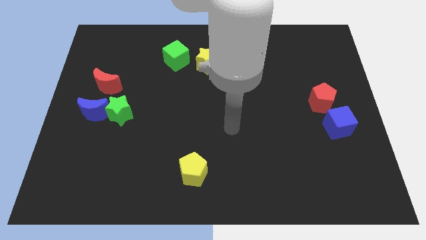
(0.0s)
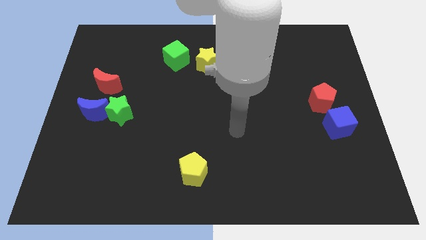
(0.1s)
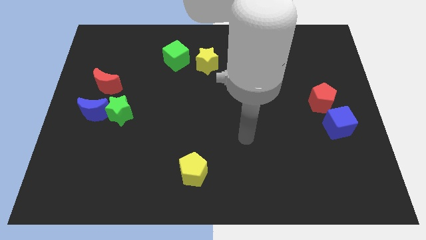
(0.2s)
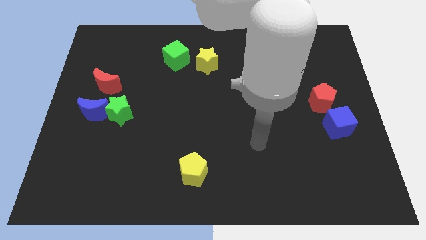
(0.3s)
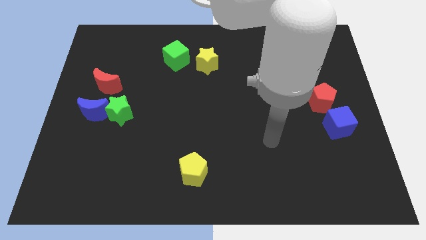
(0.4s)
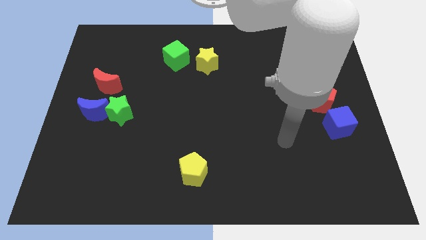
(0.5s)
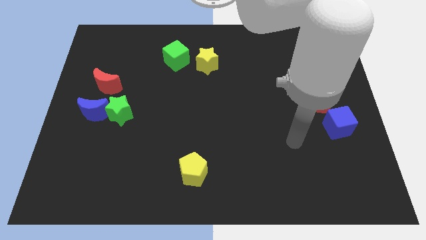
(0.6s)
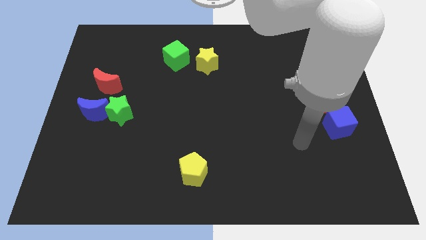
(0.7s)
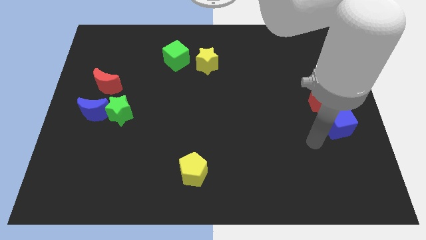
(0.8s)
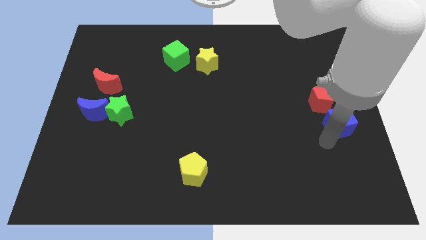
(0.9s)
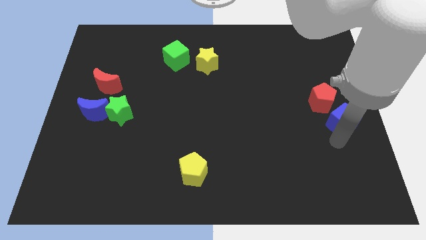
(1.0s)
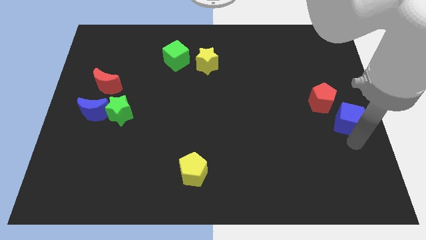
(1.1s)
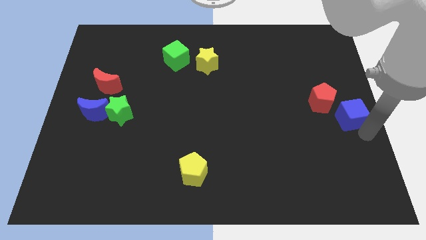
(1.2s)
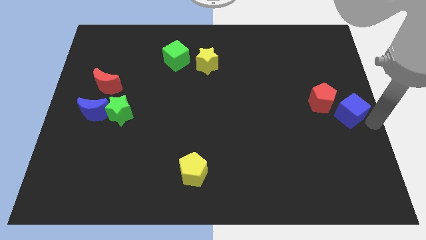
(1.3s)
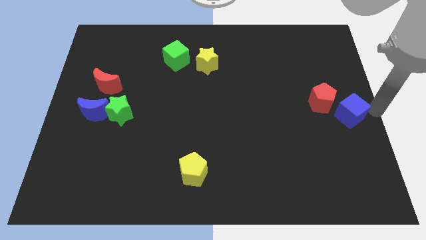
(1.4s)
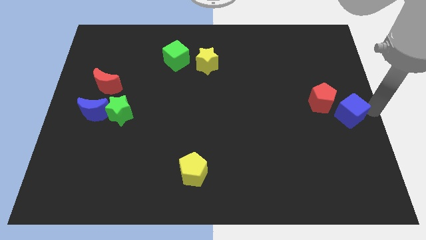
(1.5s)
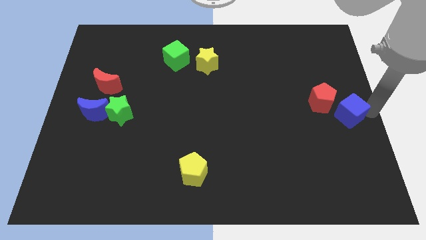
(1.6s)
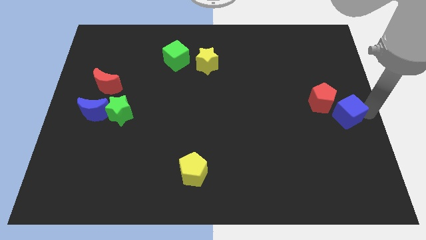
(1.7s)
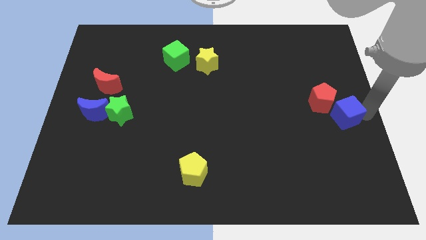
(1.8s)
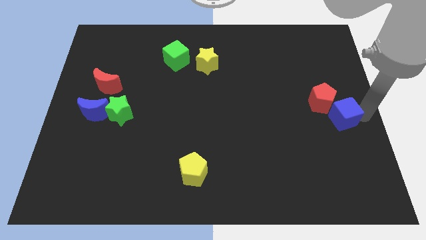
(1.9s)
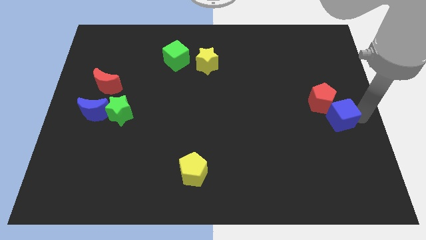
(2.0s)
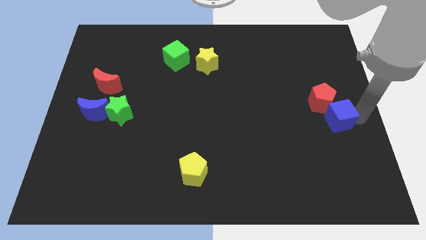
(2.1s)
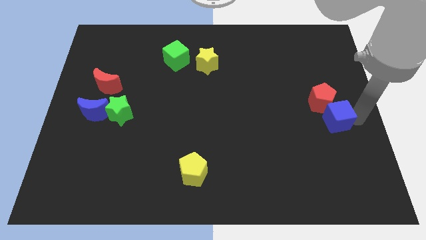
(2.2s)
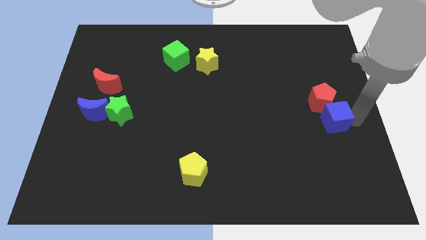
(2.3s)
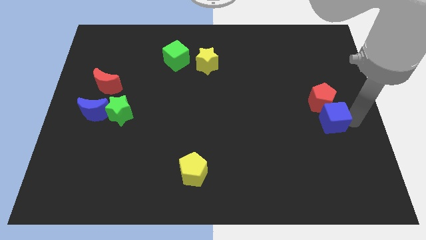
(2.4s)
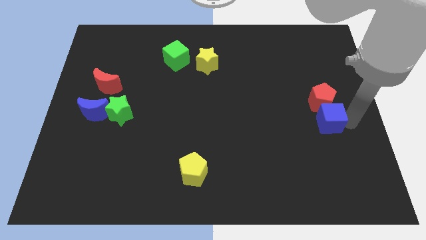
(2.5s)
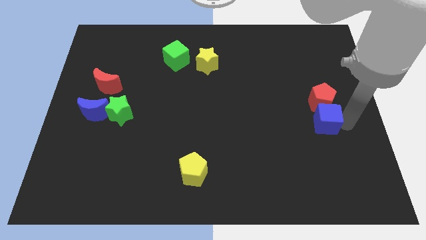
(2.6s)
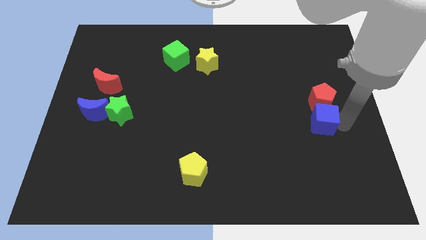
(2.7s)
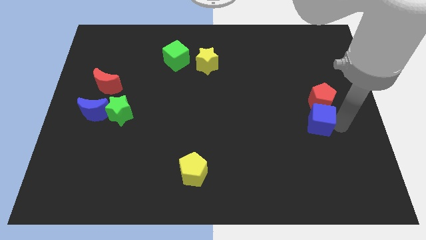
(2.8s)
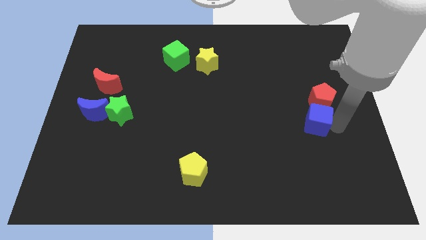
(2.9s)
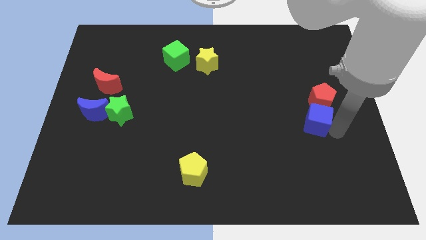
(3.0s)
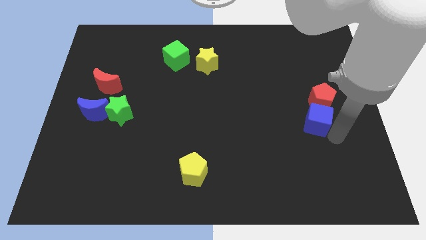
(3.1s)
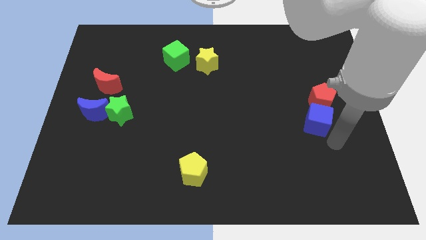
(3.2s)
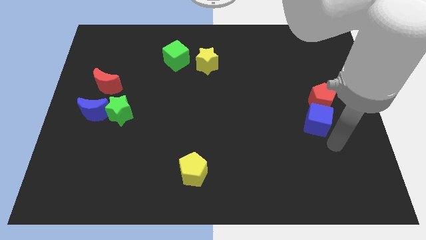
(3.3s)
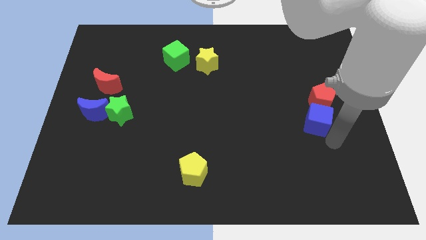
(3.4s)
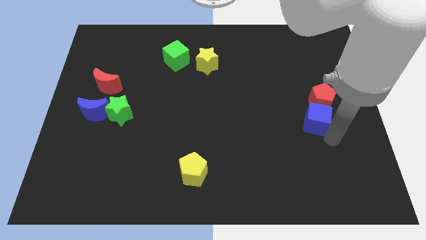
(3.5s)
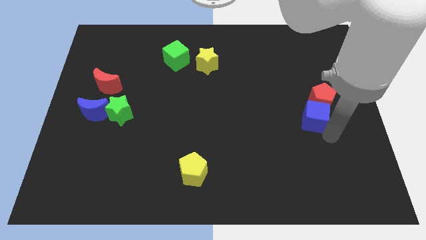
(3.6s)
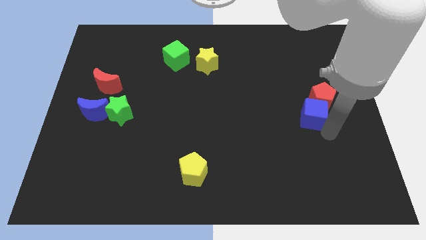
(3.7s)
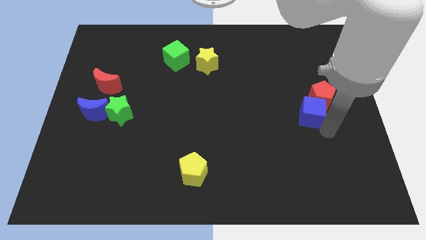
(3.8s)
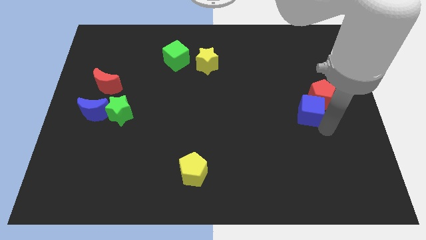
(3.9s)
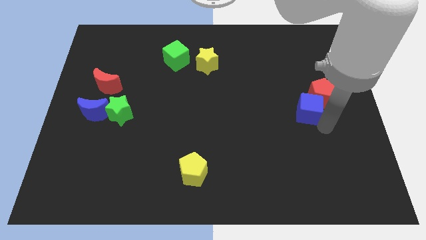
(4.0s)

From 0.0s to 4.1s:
slide the blue cube somewhat upwards and to the left

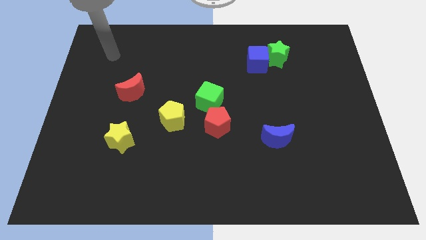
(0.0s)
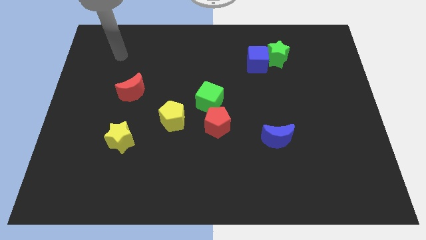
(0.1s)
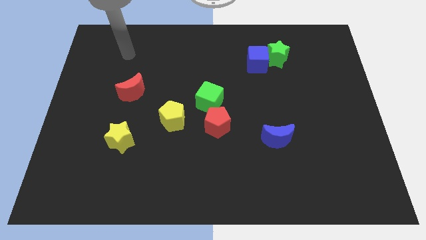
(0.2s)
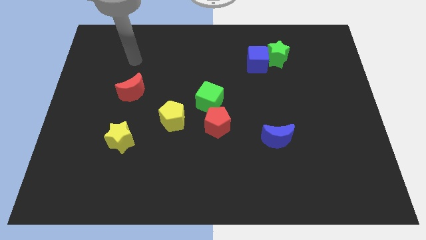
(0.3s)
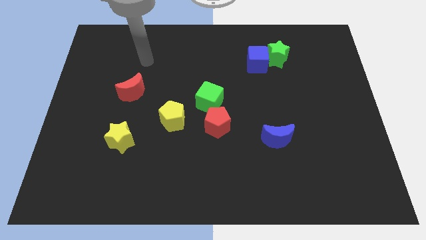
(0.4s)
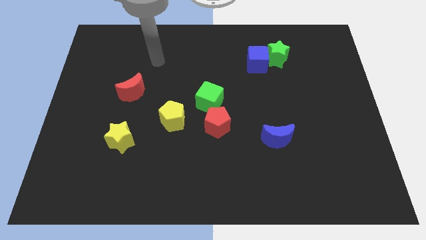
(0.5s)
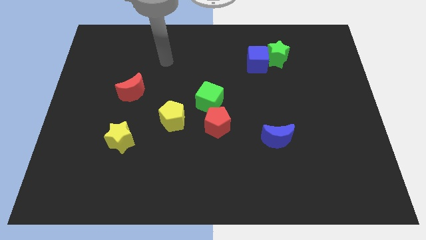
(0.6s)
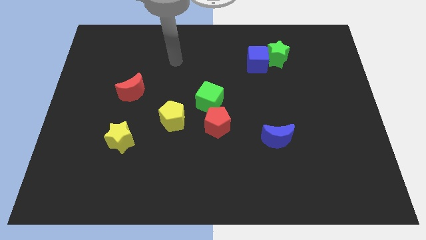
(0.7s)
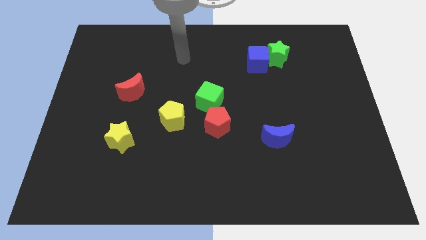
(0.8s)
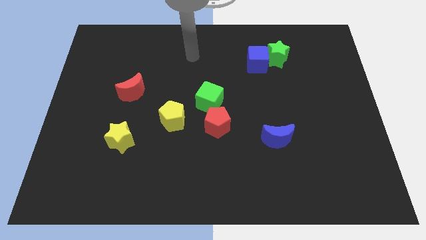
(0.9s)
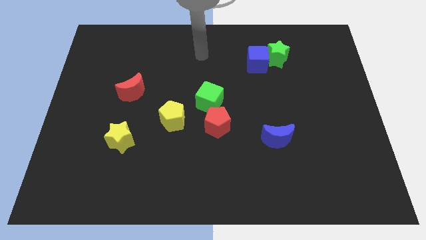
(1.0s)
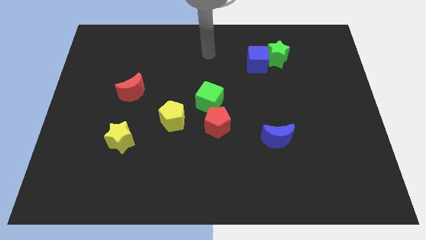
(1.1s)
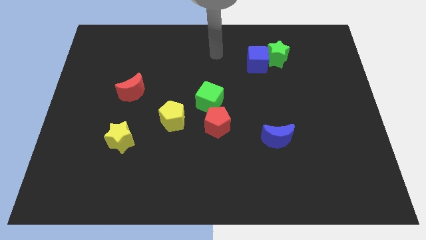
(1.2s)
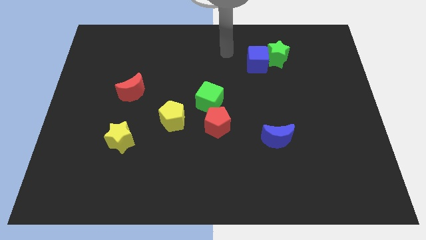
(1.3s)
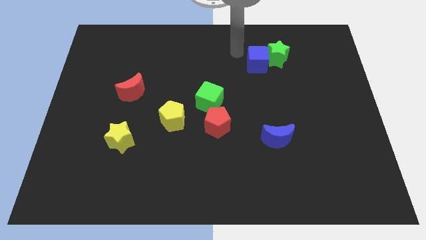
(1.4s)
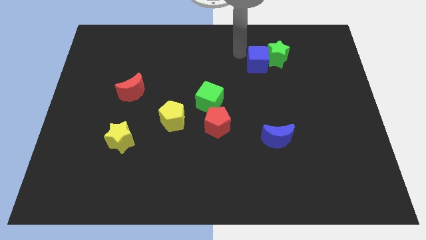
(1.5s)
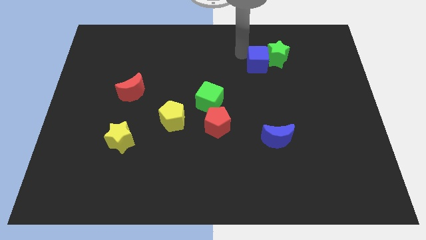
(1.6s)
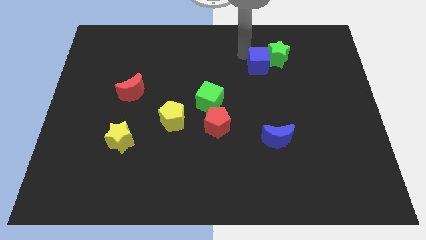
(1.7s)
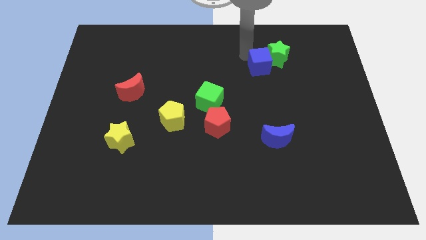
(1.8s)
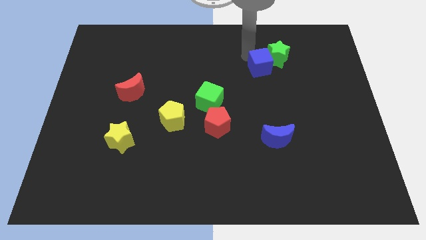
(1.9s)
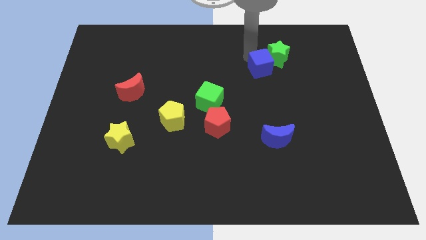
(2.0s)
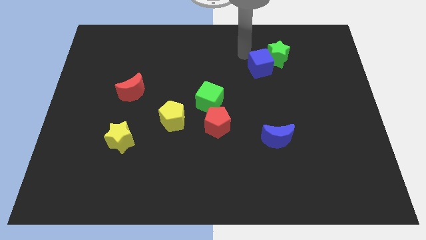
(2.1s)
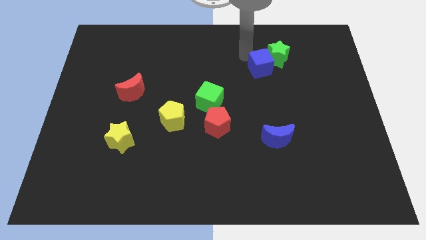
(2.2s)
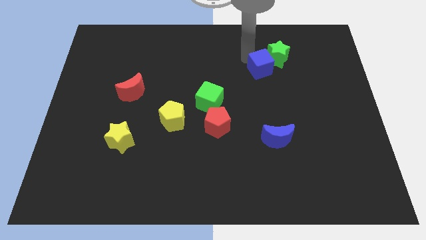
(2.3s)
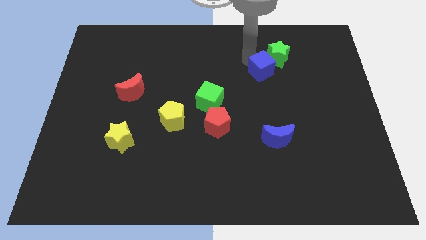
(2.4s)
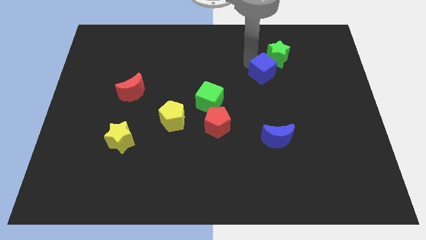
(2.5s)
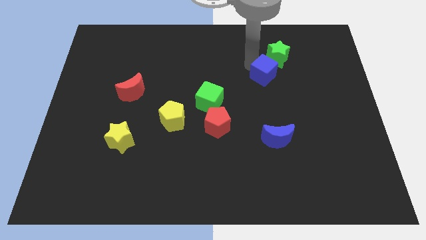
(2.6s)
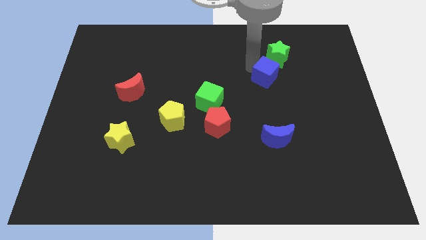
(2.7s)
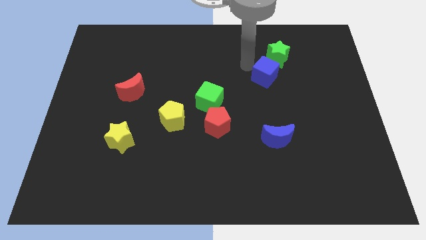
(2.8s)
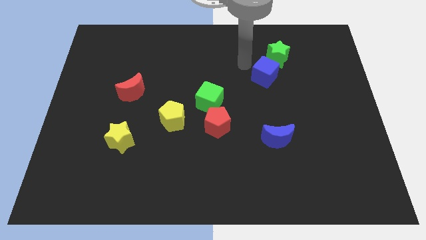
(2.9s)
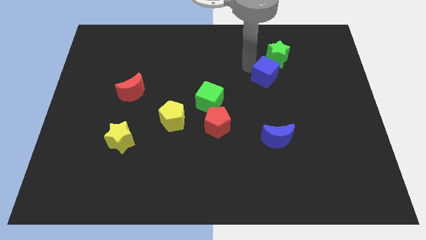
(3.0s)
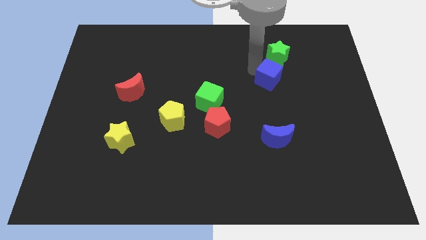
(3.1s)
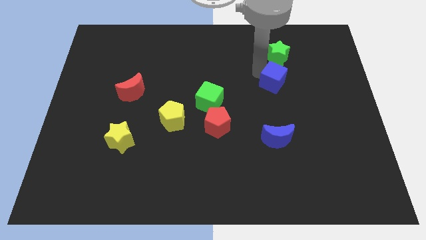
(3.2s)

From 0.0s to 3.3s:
slide the blue cube diagonally downwards and right a little bit

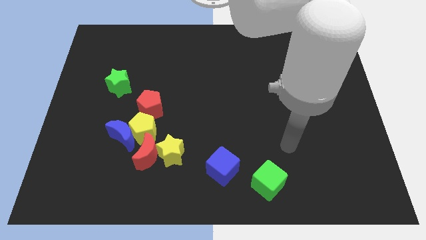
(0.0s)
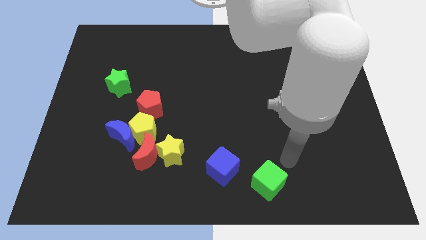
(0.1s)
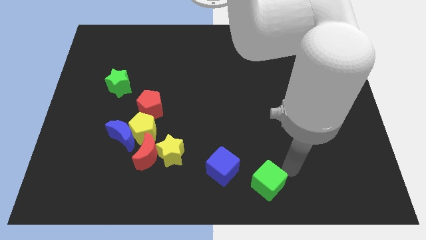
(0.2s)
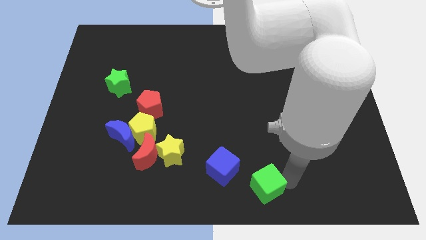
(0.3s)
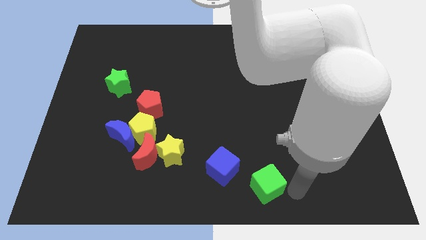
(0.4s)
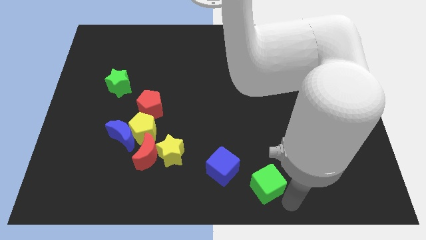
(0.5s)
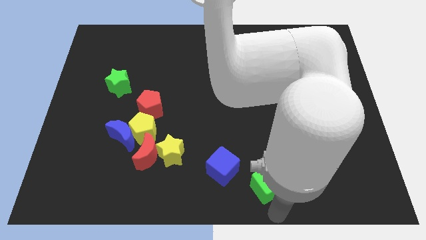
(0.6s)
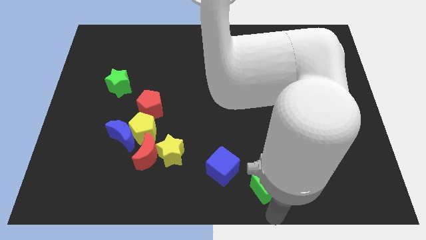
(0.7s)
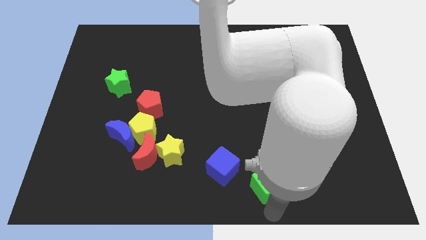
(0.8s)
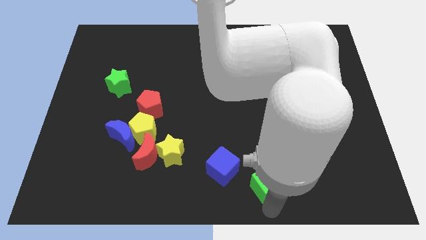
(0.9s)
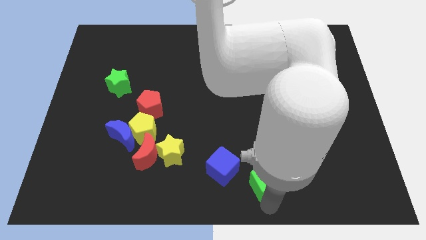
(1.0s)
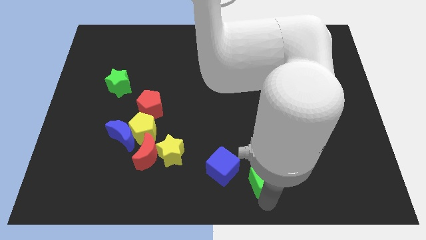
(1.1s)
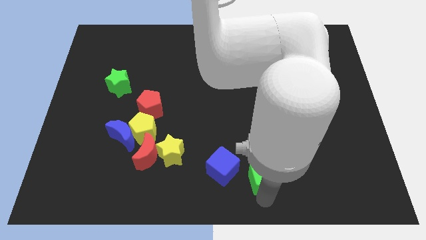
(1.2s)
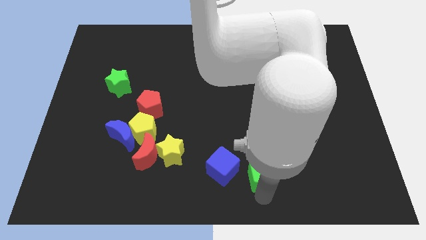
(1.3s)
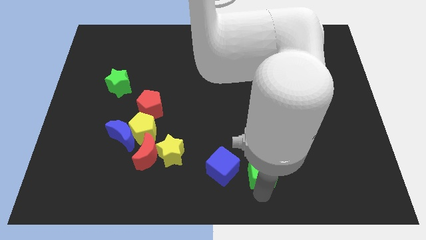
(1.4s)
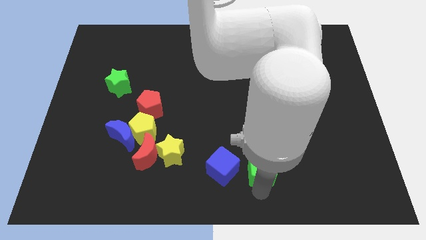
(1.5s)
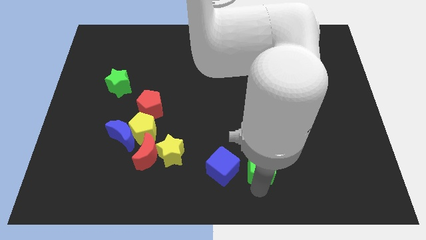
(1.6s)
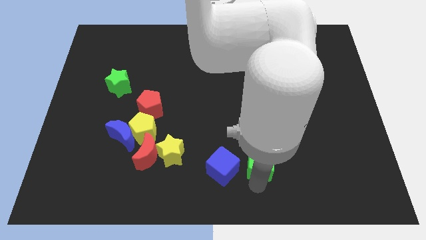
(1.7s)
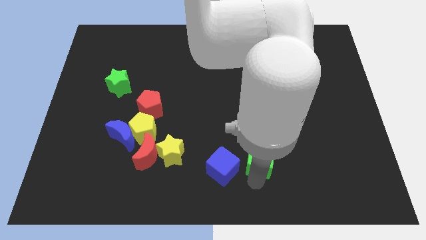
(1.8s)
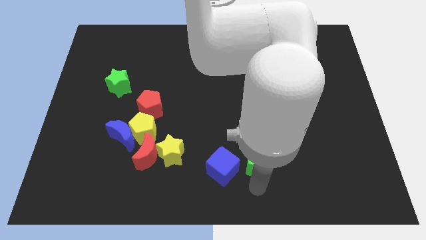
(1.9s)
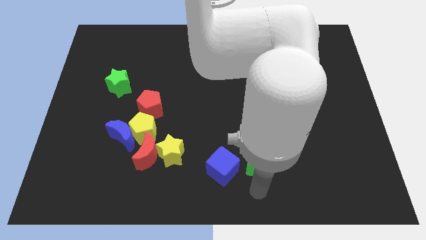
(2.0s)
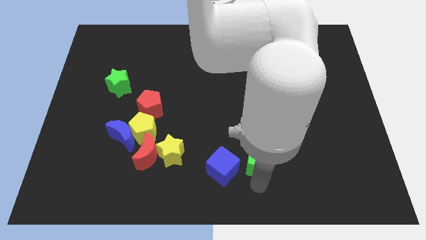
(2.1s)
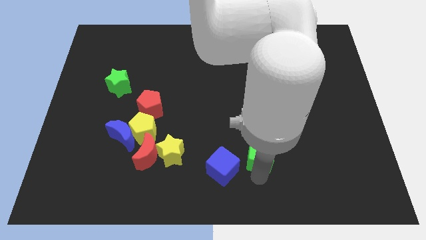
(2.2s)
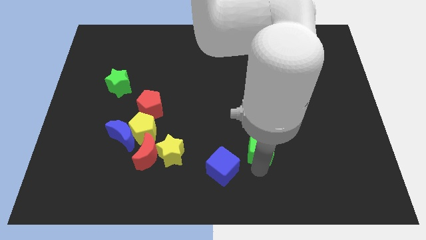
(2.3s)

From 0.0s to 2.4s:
move the green cube upwards somewhat
